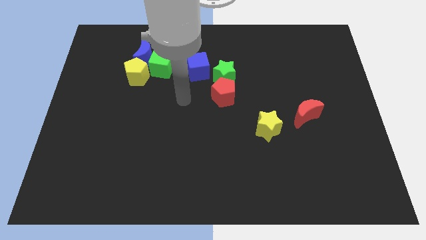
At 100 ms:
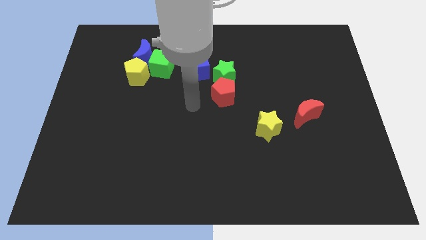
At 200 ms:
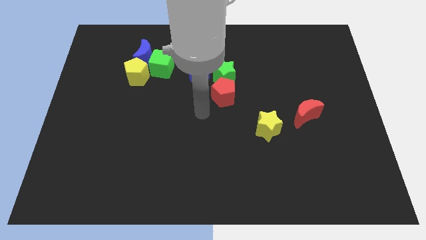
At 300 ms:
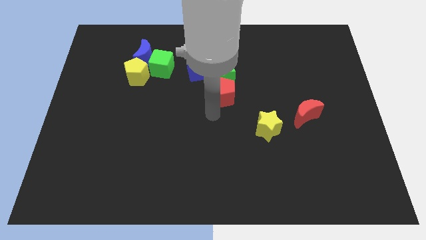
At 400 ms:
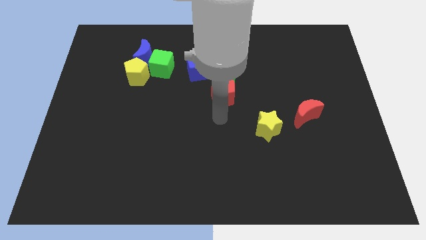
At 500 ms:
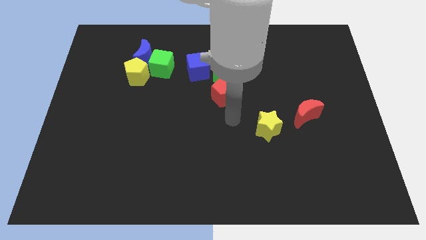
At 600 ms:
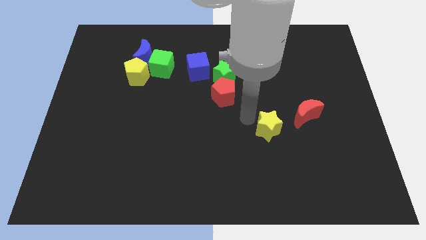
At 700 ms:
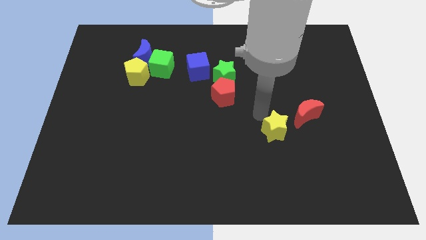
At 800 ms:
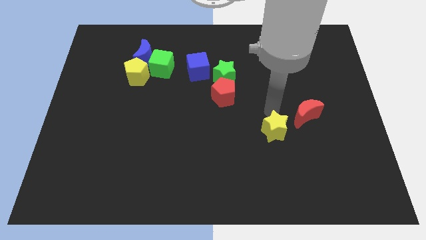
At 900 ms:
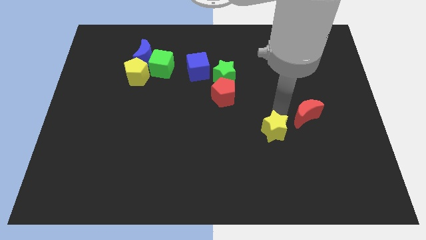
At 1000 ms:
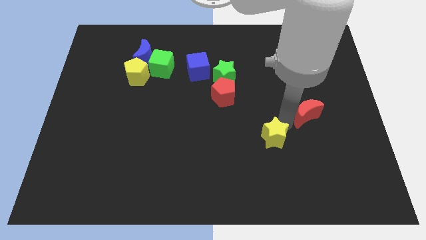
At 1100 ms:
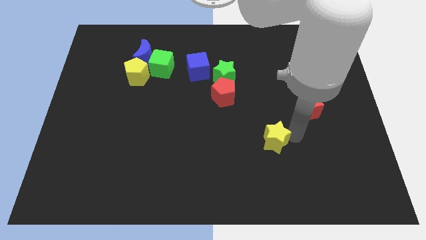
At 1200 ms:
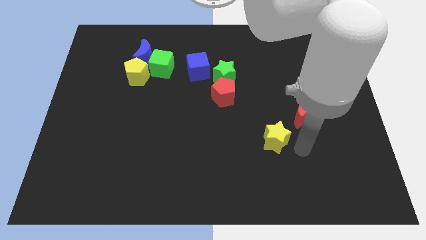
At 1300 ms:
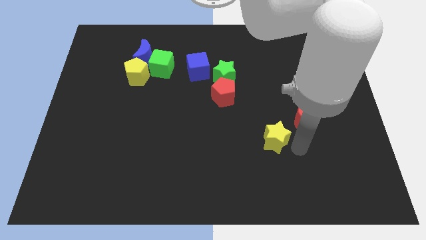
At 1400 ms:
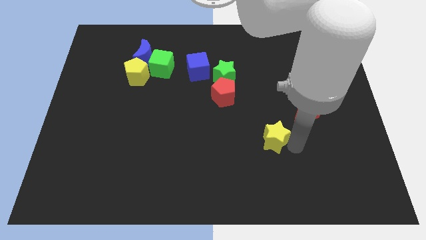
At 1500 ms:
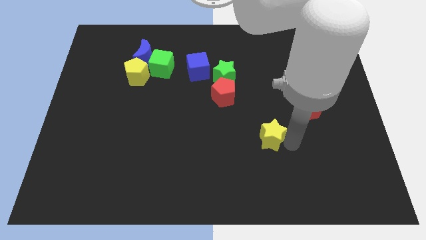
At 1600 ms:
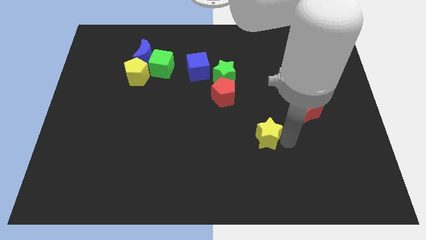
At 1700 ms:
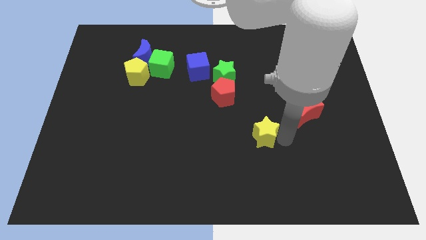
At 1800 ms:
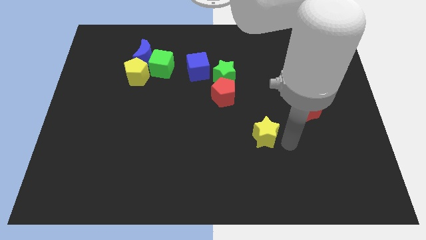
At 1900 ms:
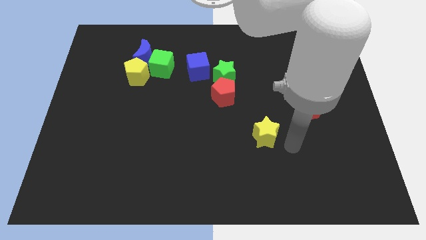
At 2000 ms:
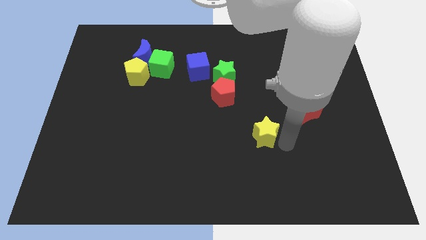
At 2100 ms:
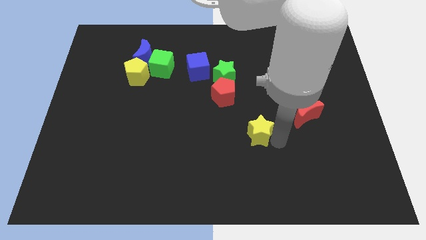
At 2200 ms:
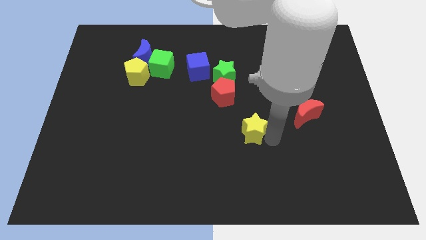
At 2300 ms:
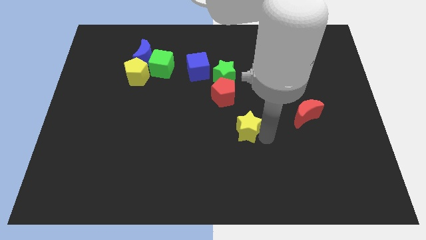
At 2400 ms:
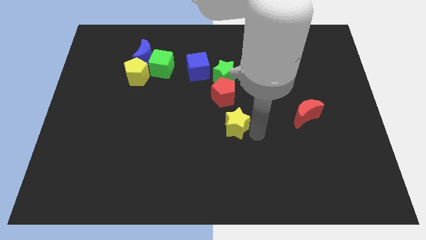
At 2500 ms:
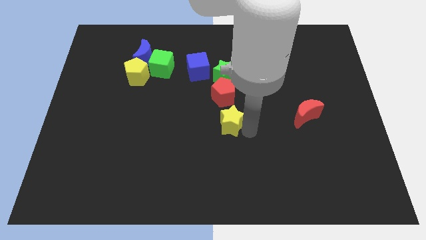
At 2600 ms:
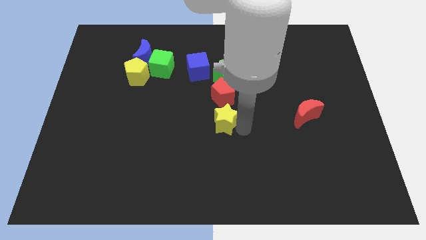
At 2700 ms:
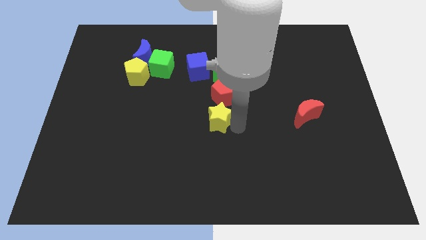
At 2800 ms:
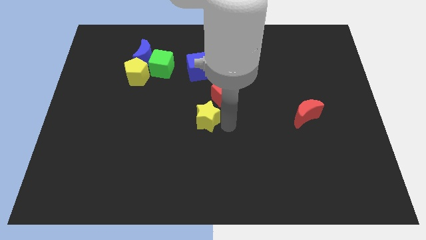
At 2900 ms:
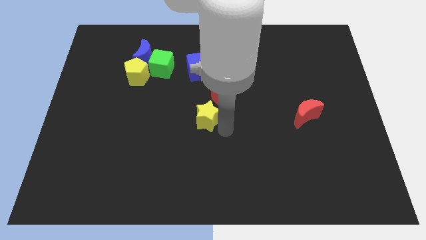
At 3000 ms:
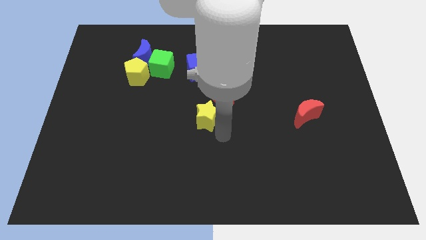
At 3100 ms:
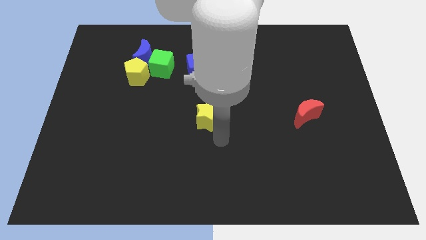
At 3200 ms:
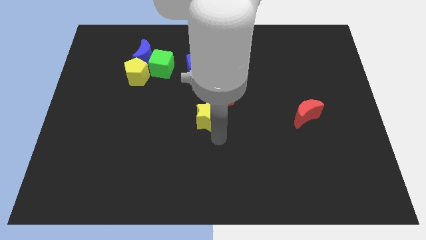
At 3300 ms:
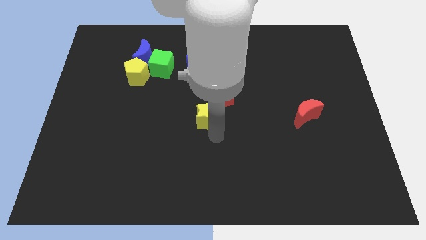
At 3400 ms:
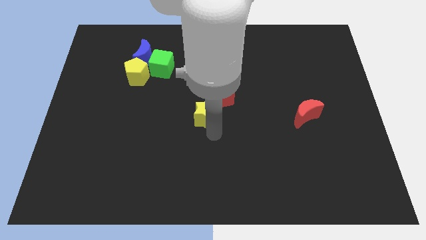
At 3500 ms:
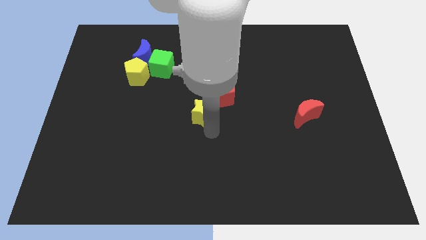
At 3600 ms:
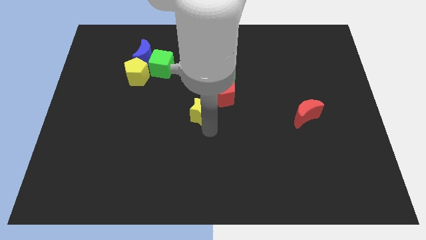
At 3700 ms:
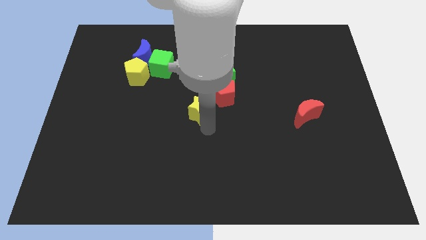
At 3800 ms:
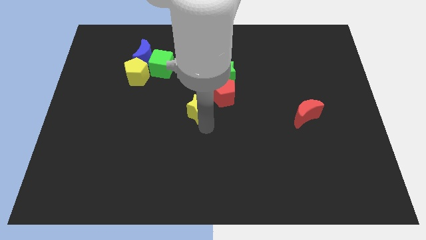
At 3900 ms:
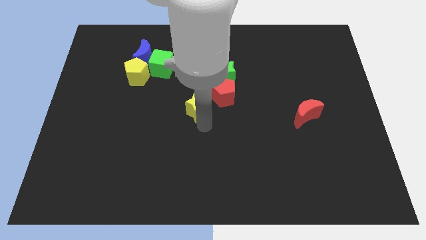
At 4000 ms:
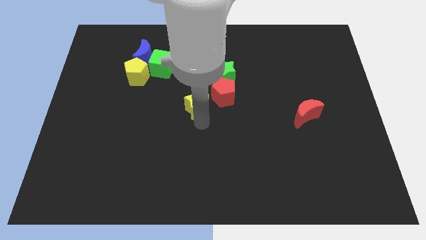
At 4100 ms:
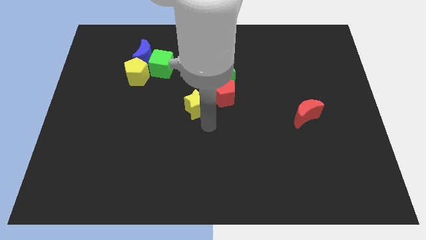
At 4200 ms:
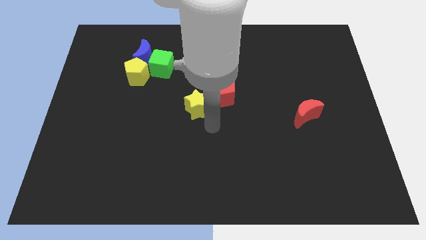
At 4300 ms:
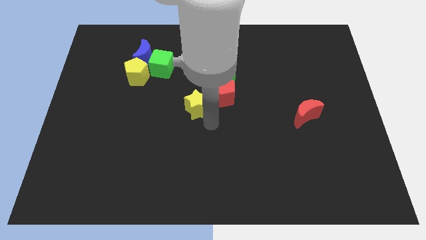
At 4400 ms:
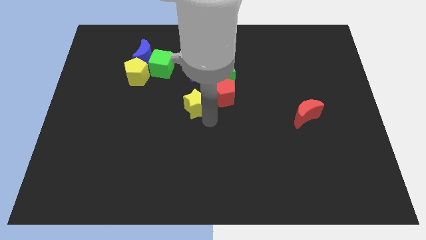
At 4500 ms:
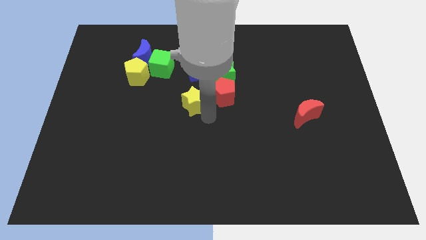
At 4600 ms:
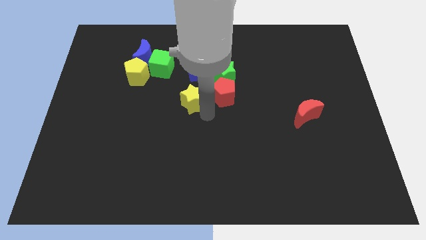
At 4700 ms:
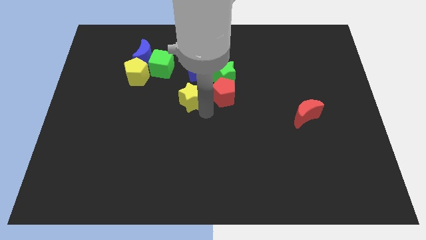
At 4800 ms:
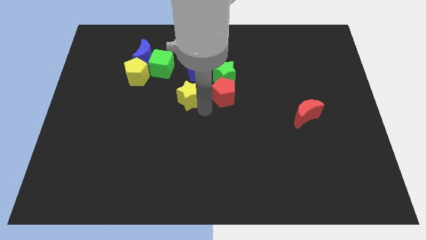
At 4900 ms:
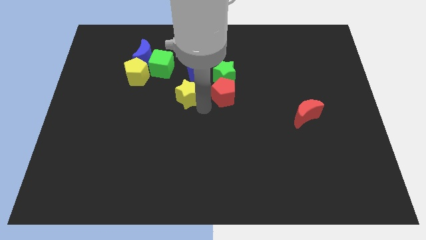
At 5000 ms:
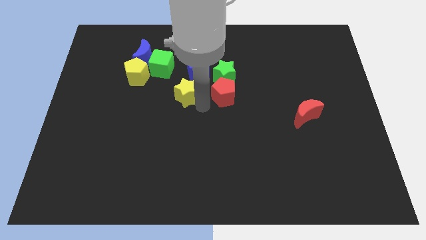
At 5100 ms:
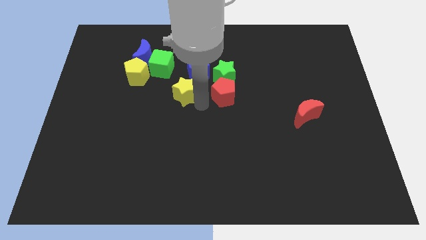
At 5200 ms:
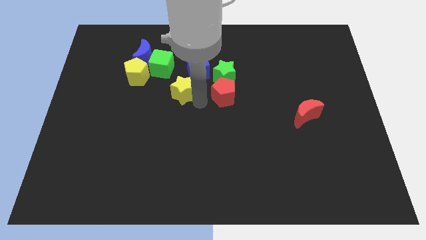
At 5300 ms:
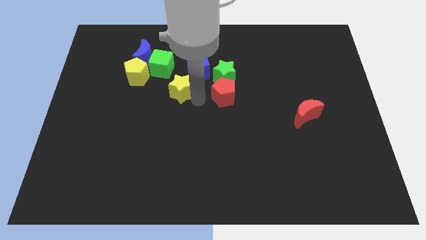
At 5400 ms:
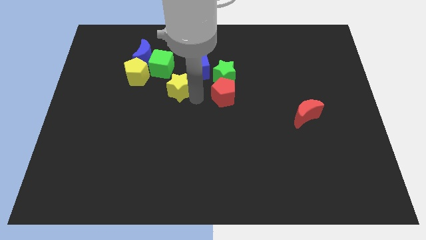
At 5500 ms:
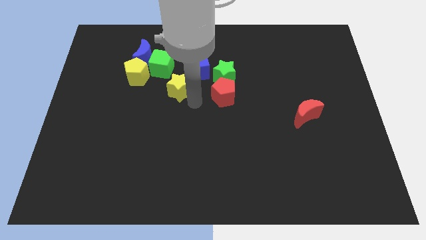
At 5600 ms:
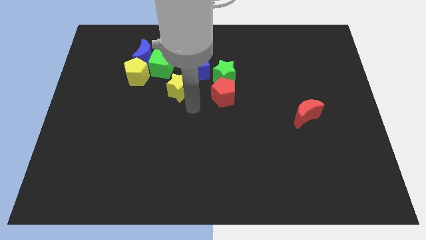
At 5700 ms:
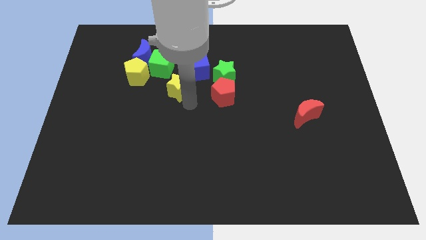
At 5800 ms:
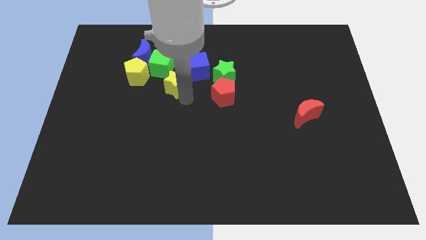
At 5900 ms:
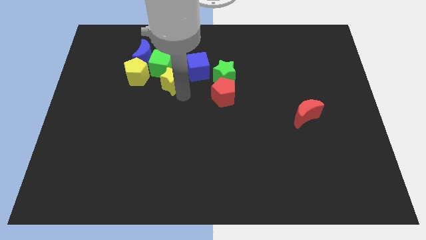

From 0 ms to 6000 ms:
push the yellow star towards the green cube

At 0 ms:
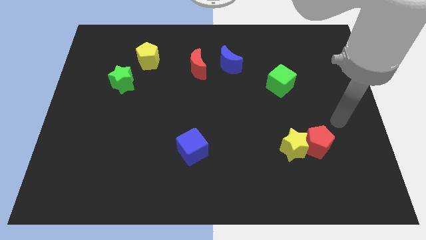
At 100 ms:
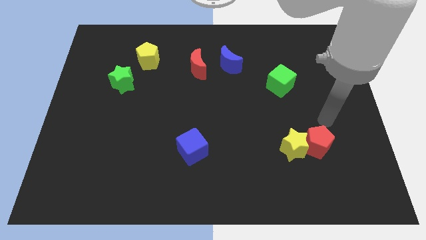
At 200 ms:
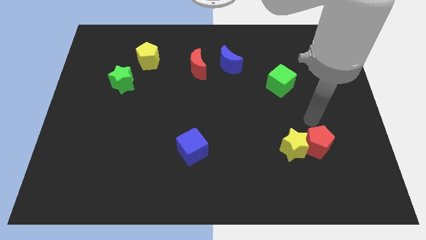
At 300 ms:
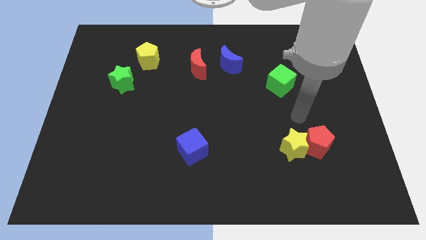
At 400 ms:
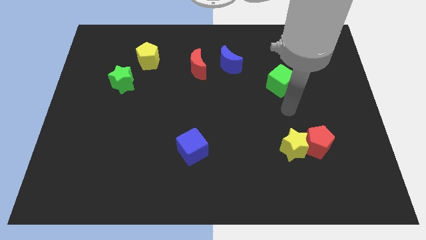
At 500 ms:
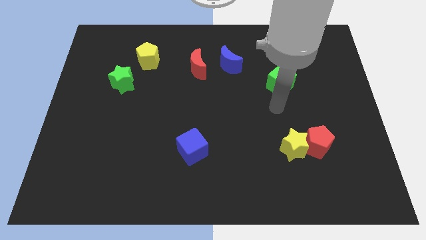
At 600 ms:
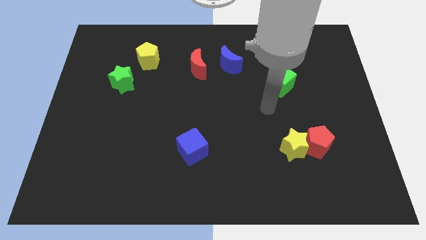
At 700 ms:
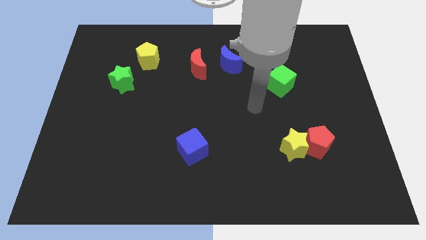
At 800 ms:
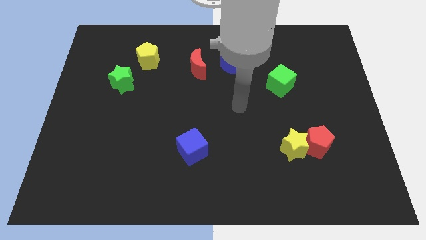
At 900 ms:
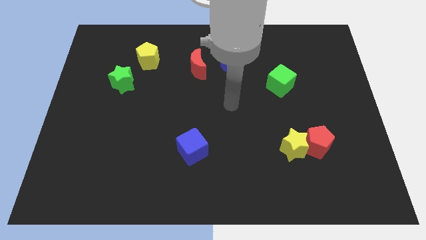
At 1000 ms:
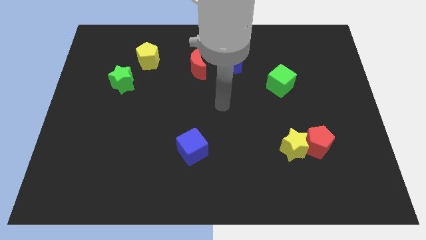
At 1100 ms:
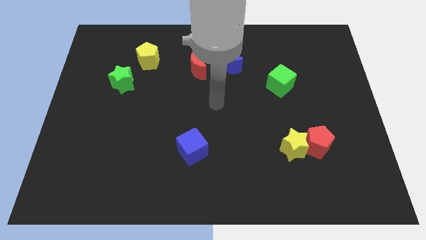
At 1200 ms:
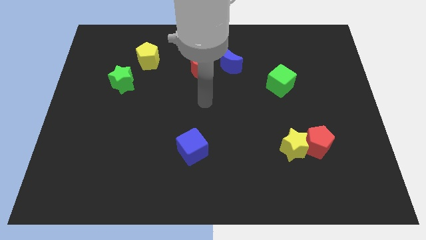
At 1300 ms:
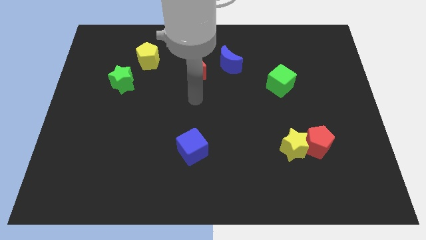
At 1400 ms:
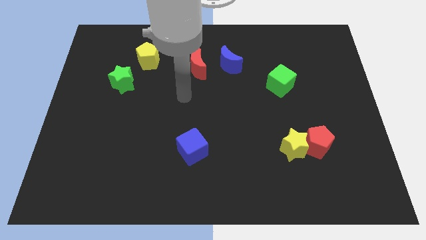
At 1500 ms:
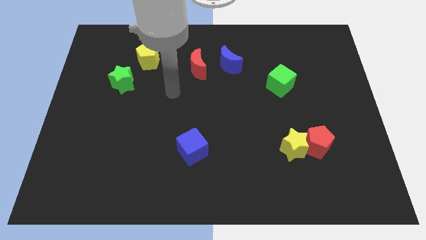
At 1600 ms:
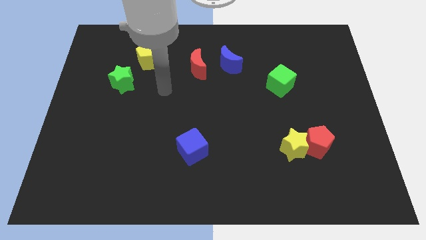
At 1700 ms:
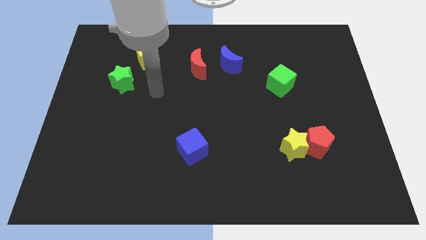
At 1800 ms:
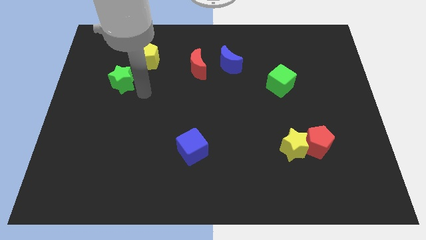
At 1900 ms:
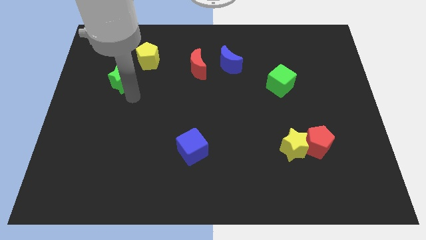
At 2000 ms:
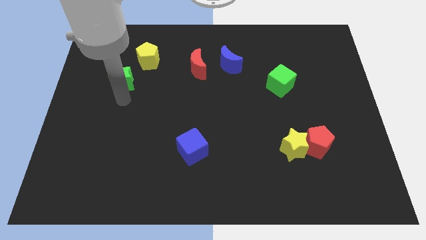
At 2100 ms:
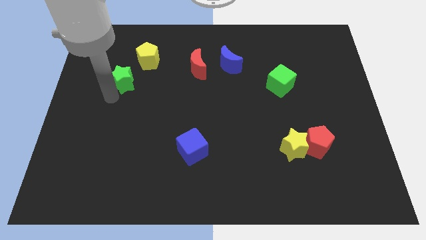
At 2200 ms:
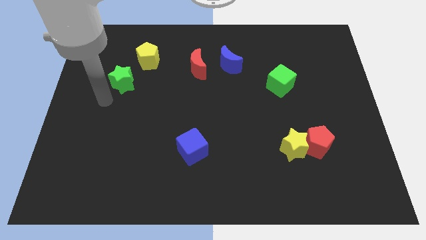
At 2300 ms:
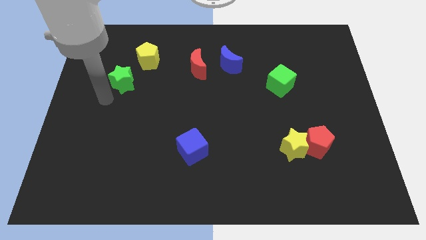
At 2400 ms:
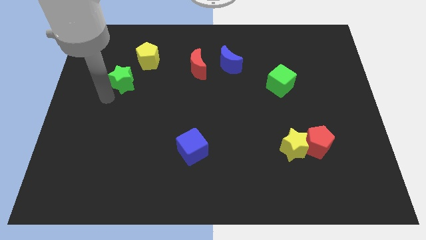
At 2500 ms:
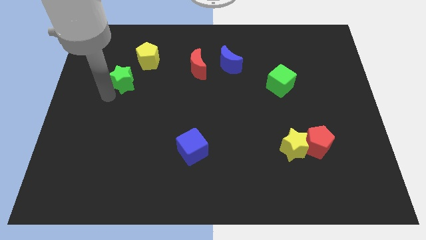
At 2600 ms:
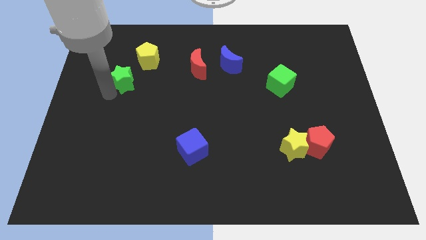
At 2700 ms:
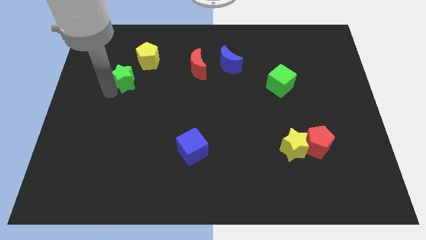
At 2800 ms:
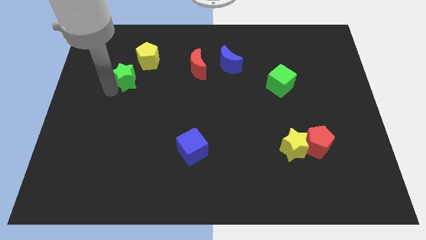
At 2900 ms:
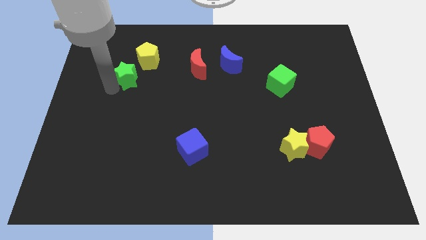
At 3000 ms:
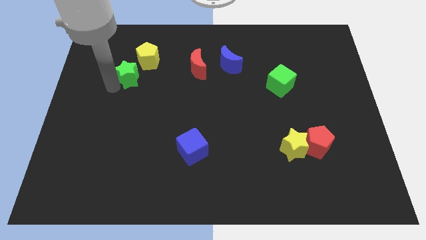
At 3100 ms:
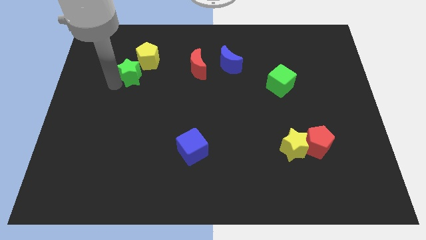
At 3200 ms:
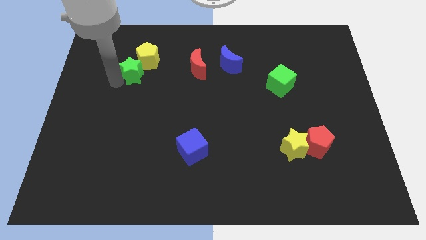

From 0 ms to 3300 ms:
put the green star towards the yellow pentagon
